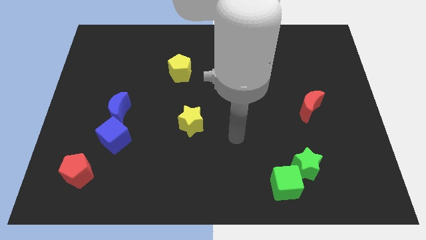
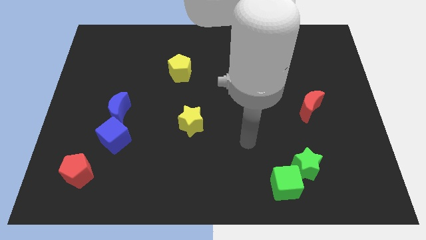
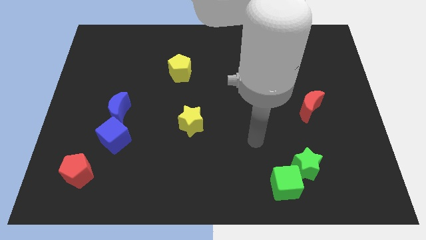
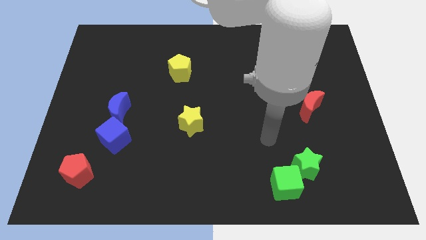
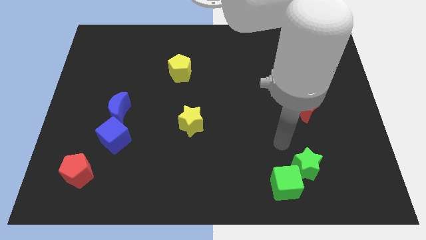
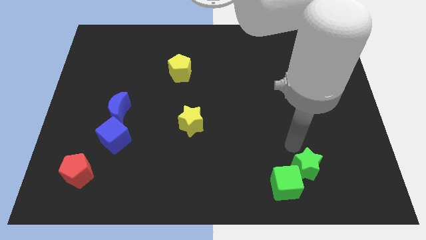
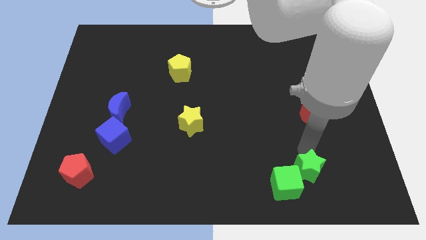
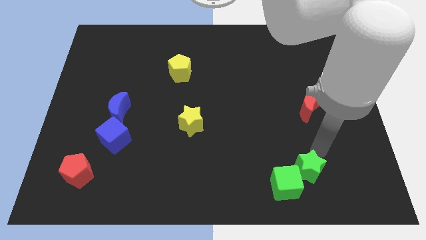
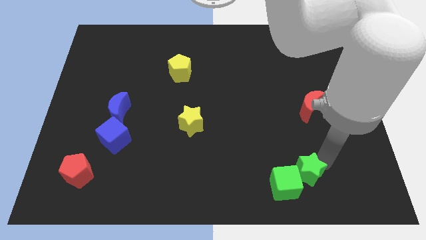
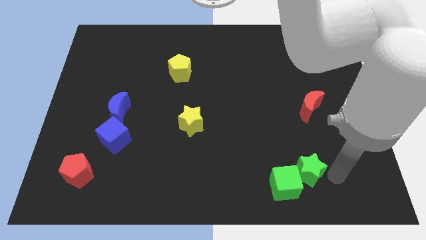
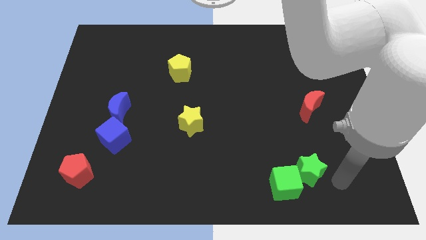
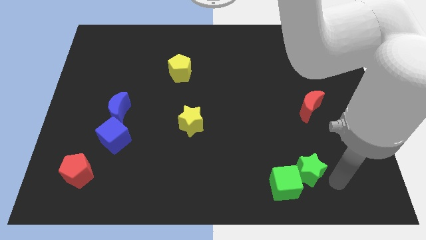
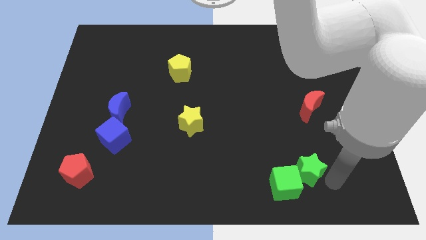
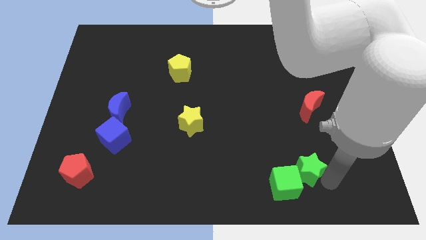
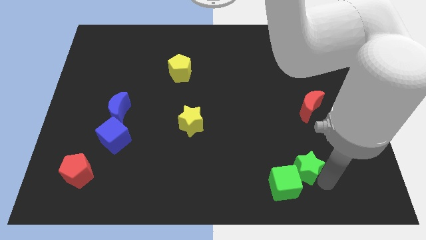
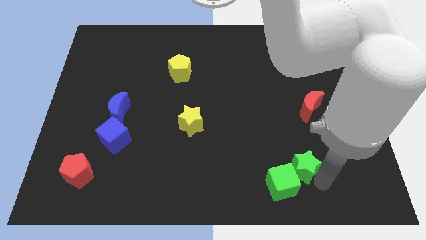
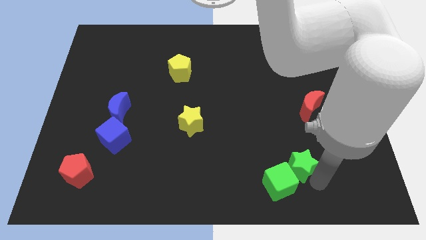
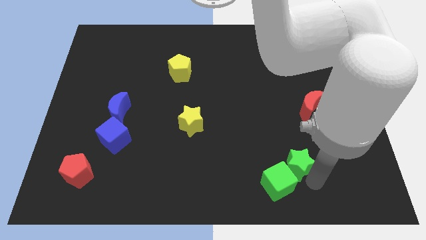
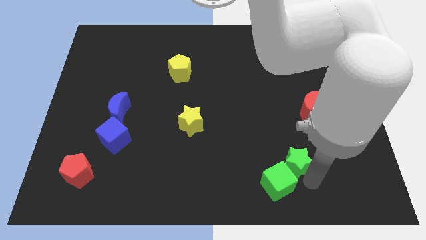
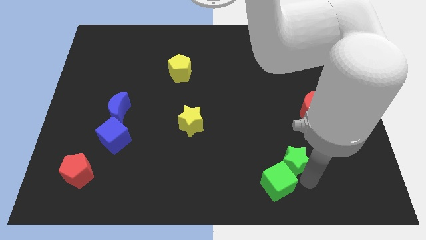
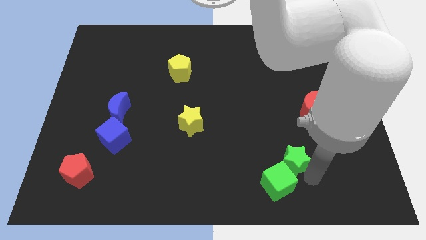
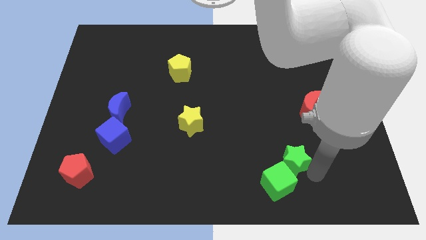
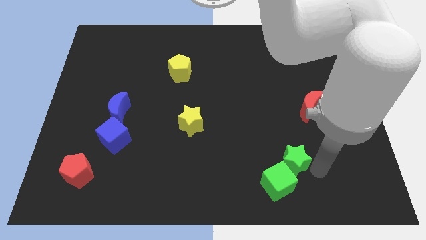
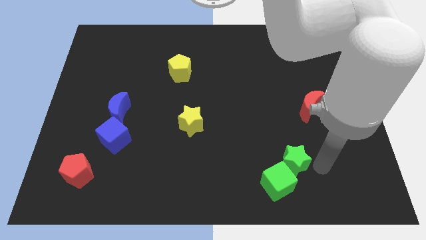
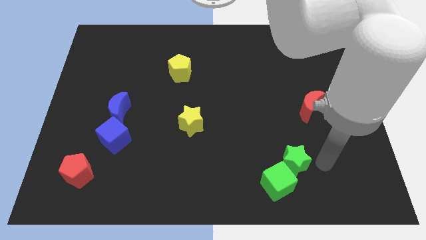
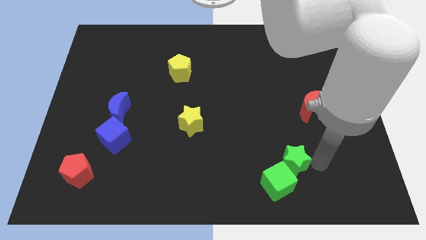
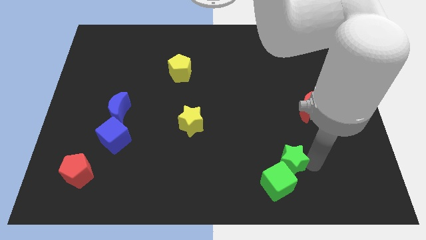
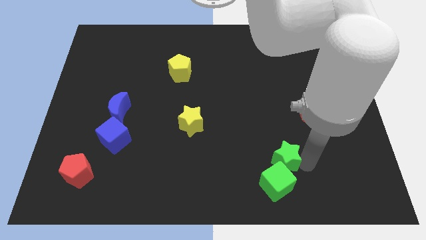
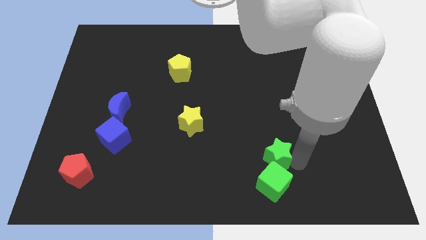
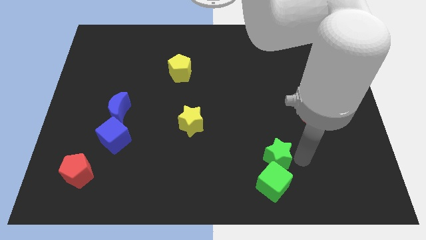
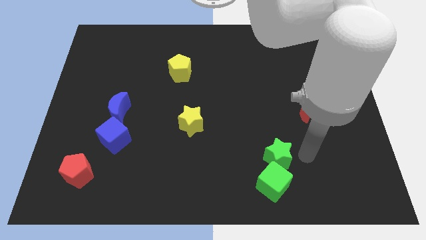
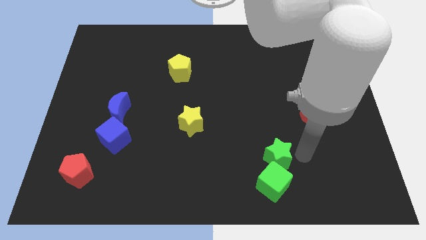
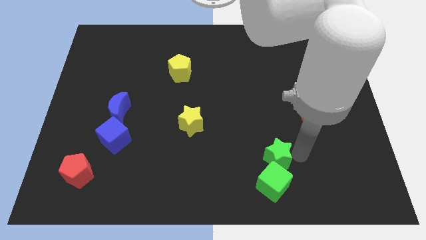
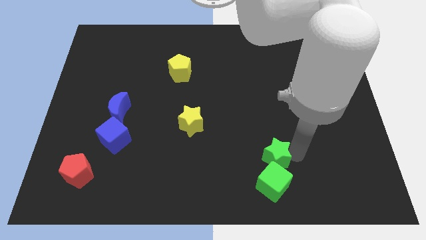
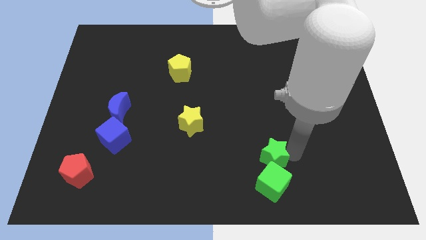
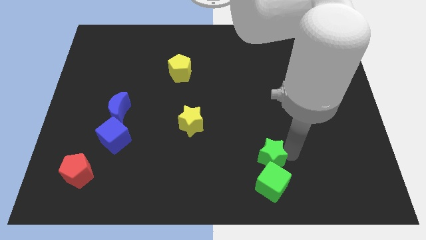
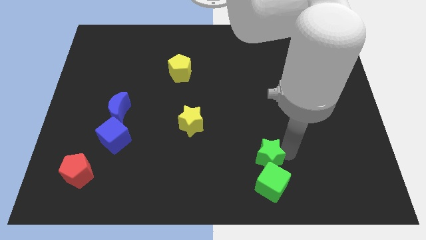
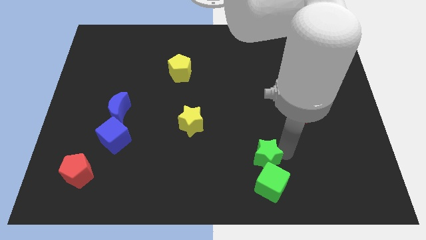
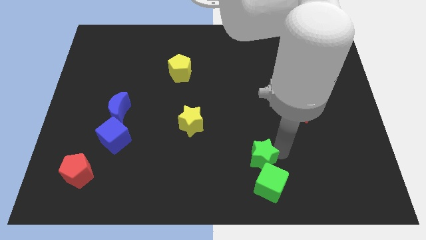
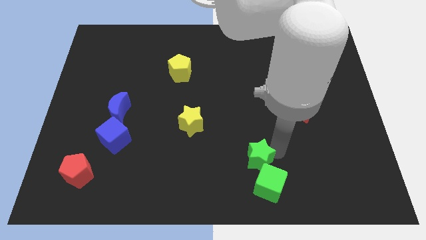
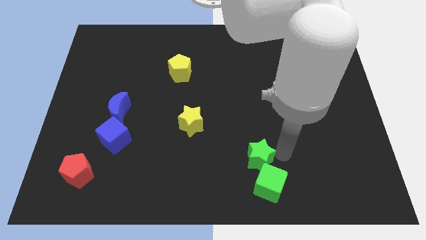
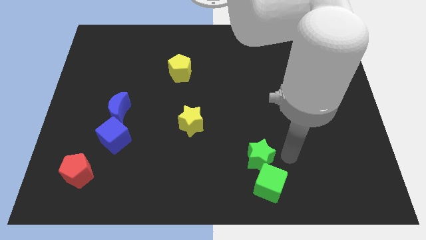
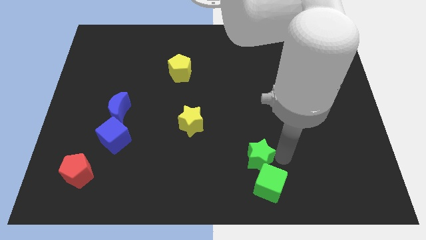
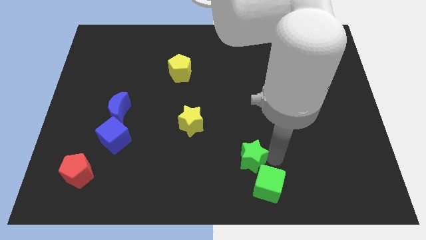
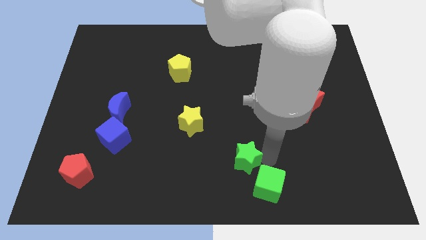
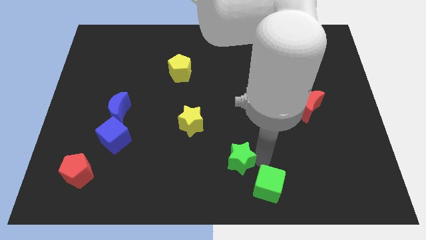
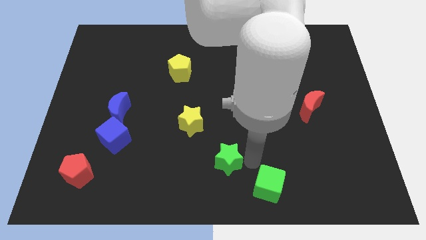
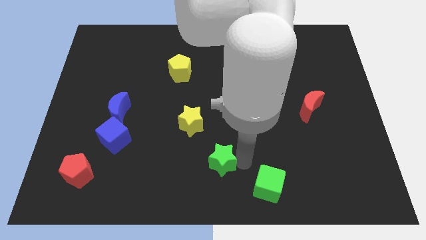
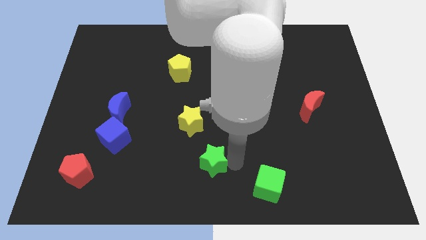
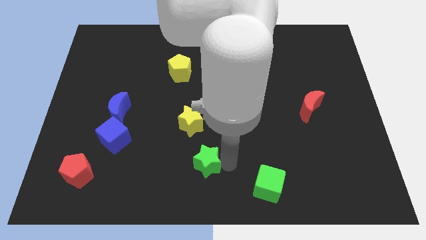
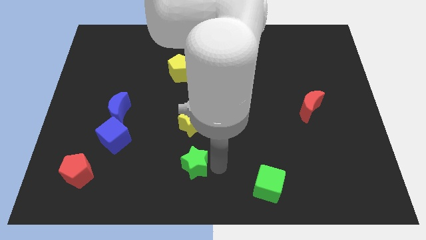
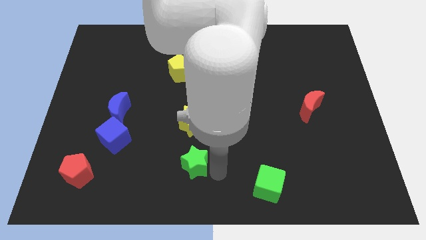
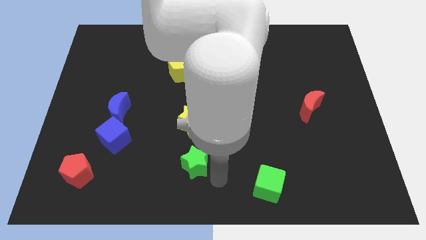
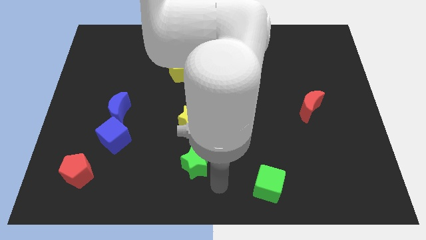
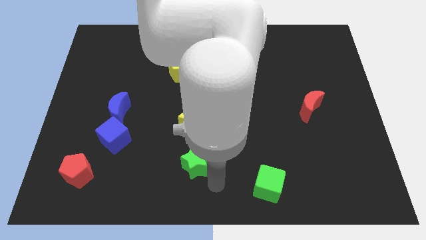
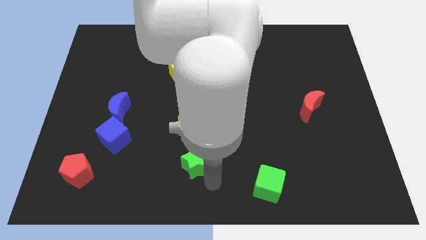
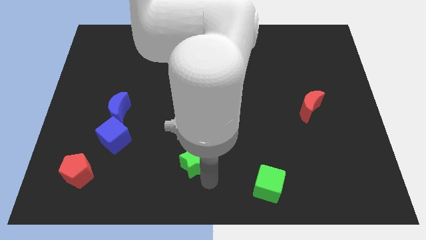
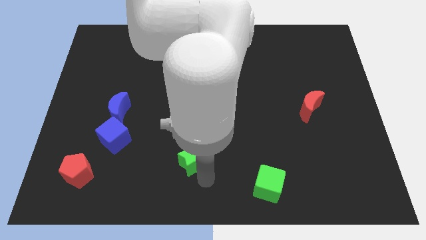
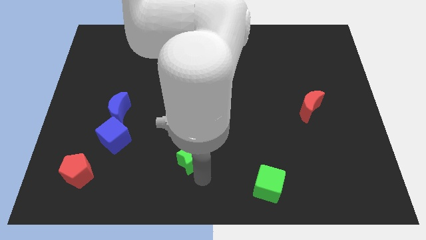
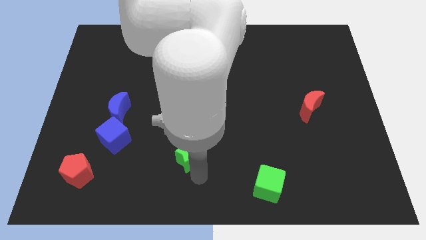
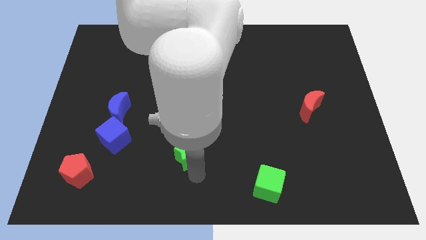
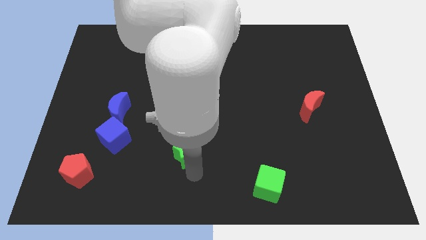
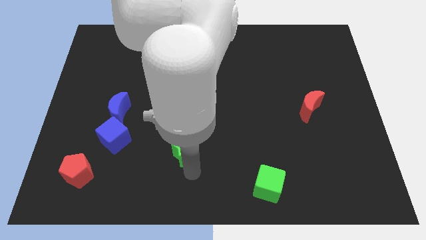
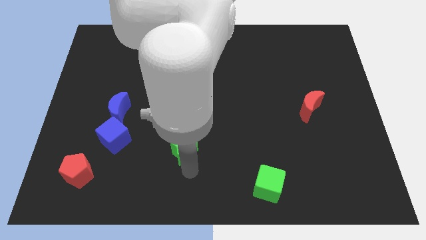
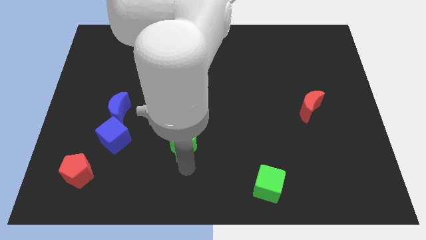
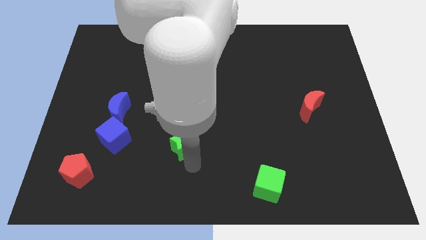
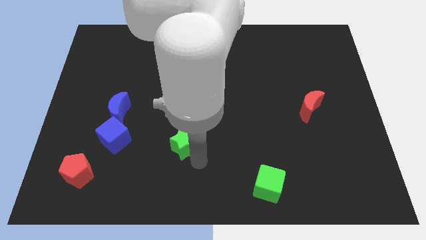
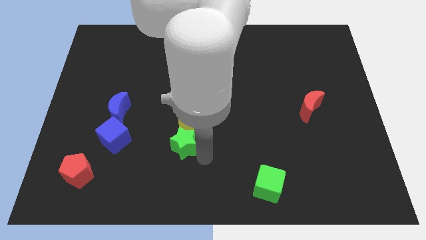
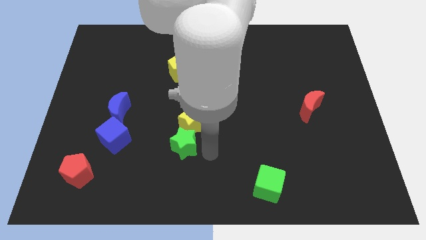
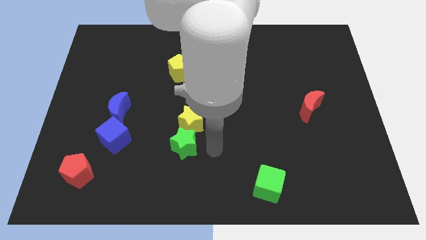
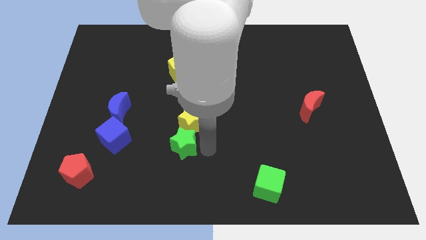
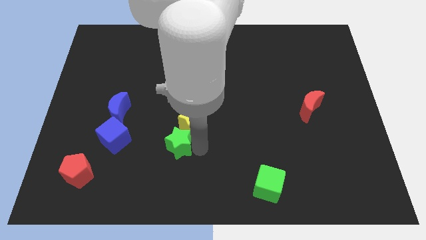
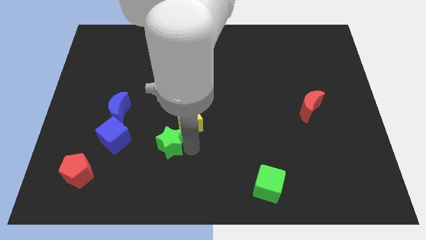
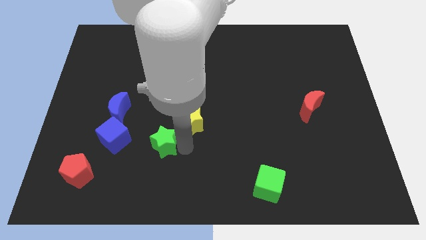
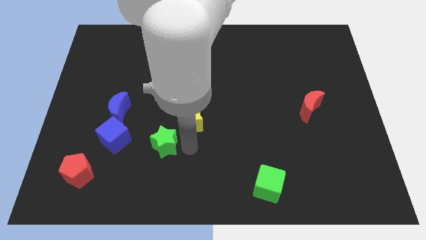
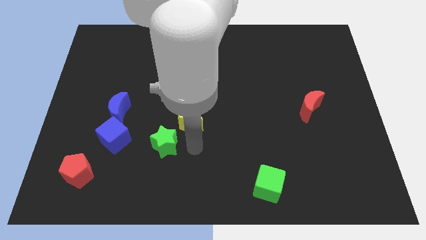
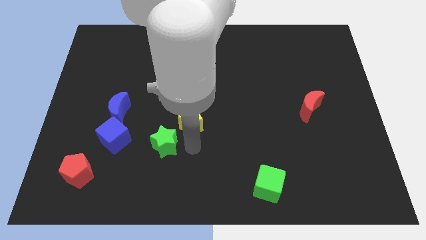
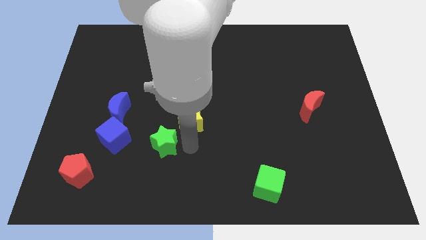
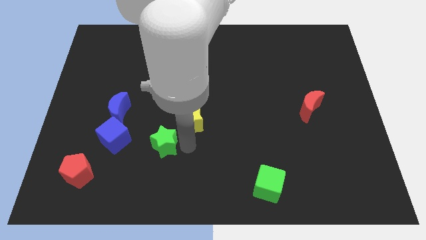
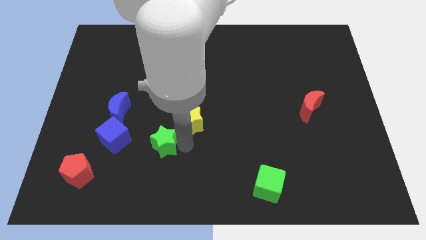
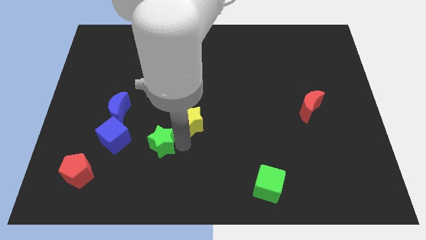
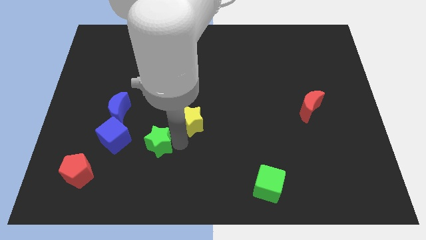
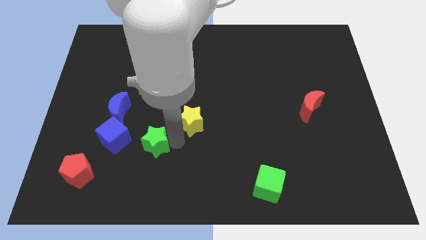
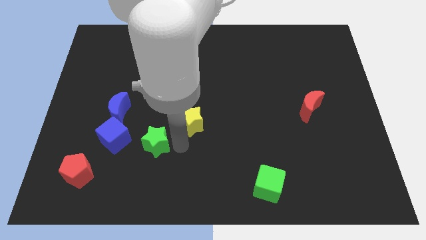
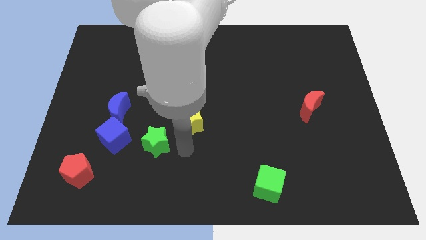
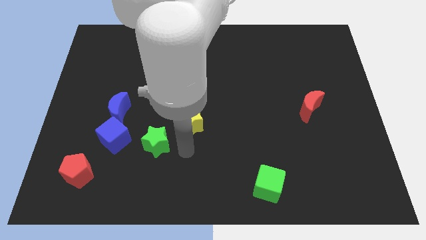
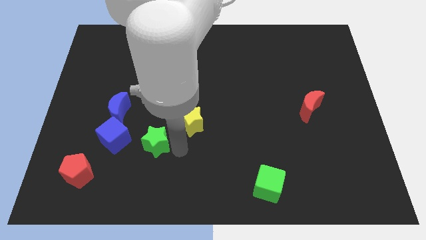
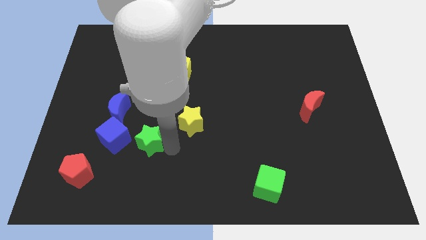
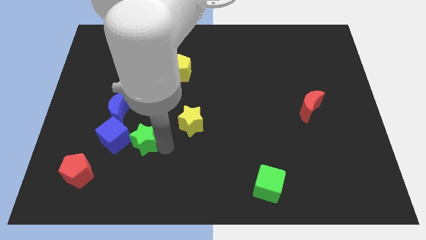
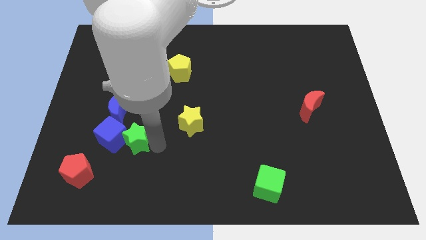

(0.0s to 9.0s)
put the green star close to the blue cube
